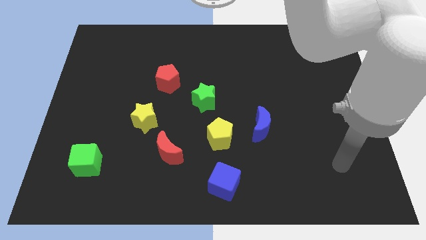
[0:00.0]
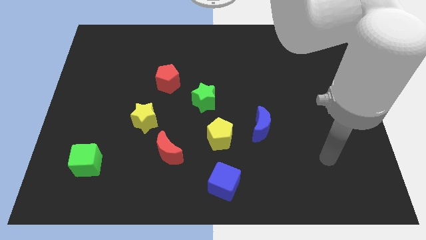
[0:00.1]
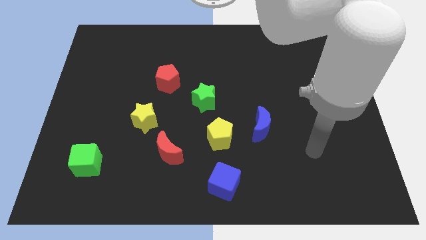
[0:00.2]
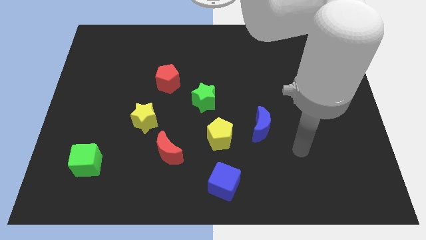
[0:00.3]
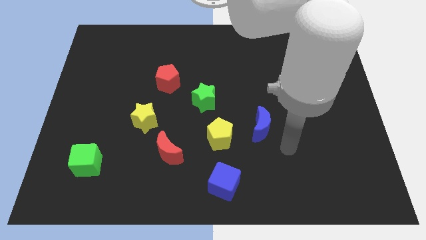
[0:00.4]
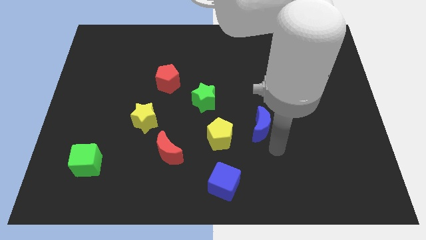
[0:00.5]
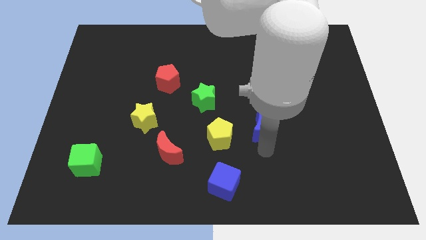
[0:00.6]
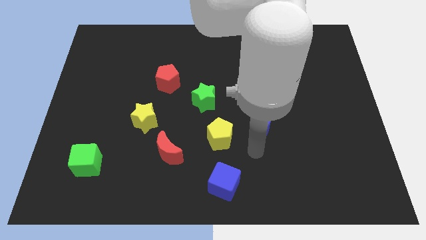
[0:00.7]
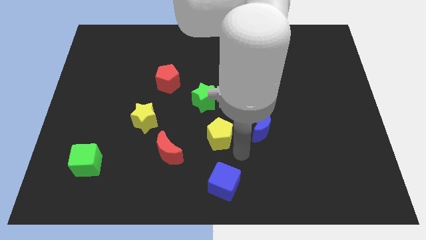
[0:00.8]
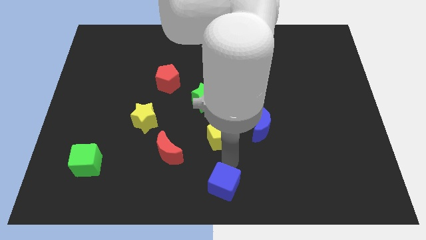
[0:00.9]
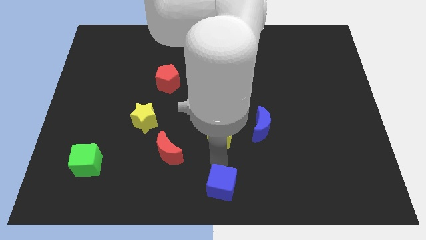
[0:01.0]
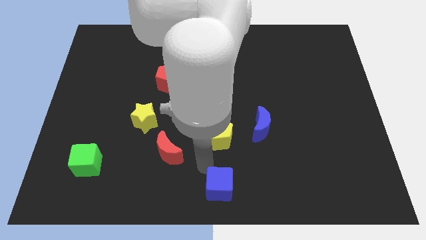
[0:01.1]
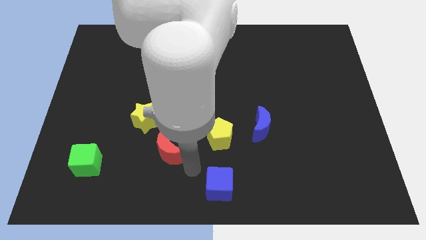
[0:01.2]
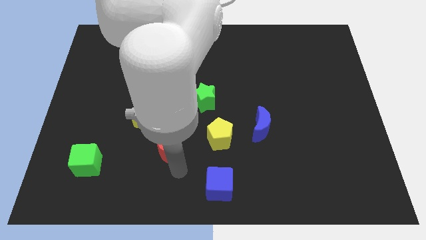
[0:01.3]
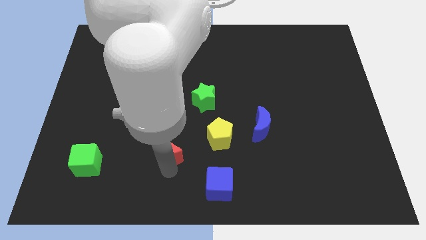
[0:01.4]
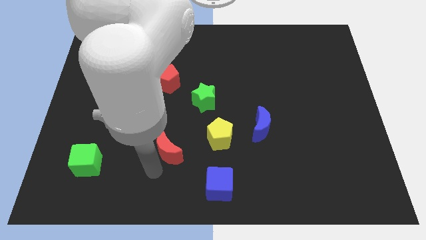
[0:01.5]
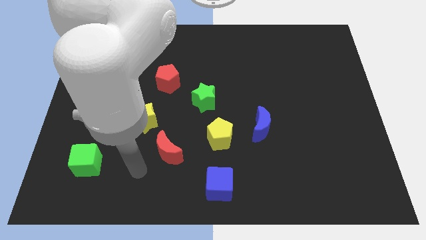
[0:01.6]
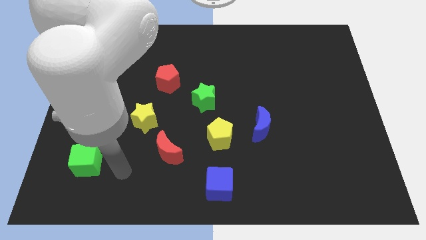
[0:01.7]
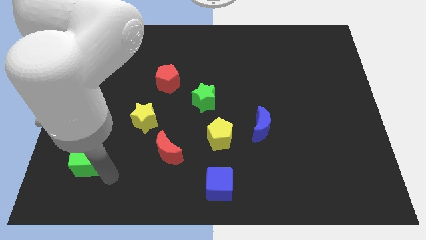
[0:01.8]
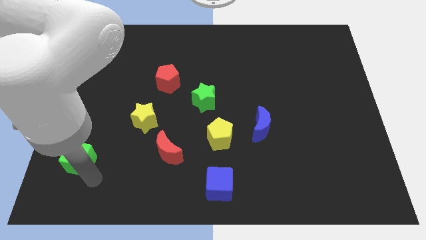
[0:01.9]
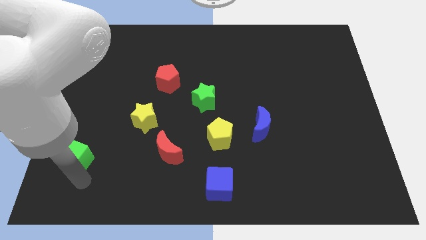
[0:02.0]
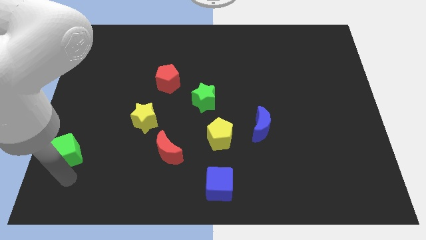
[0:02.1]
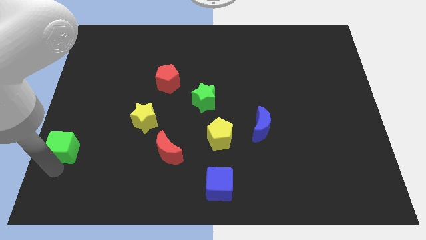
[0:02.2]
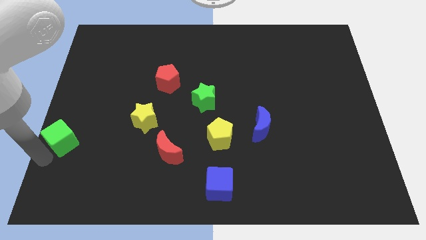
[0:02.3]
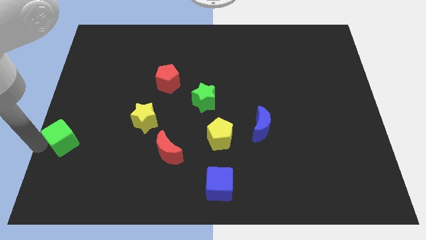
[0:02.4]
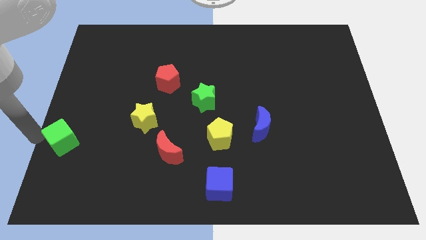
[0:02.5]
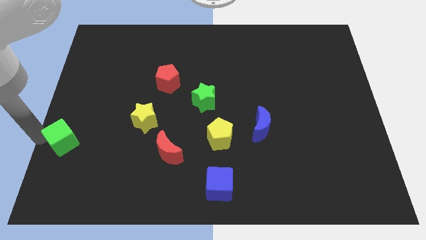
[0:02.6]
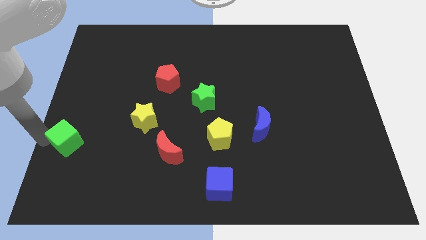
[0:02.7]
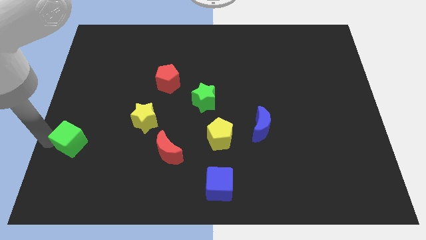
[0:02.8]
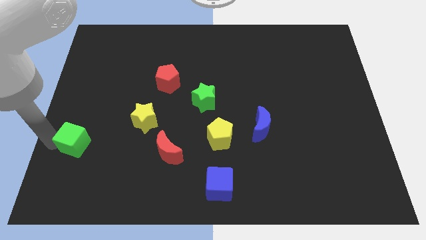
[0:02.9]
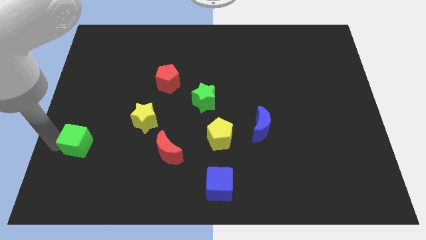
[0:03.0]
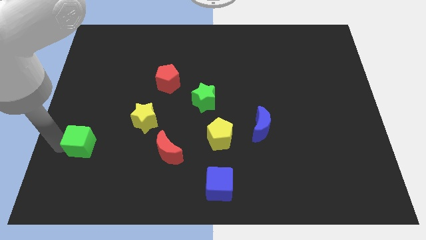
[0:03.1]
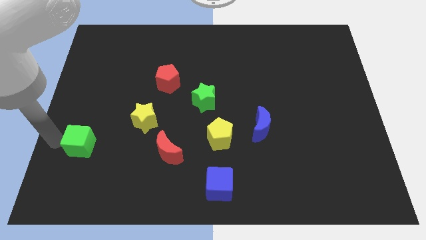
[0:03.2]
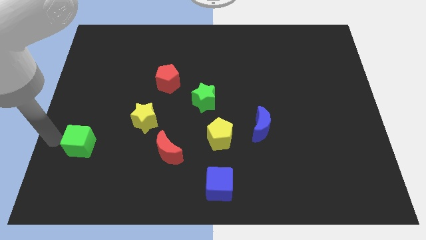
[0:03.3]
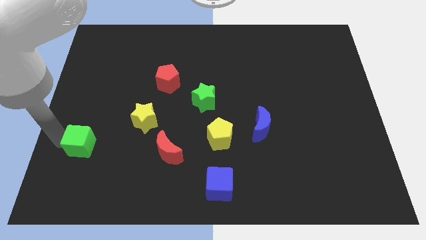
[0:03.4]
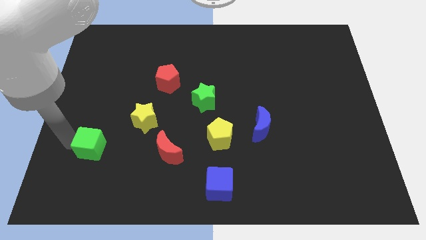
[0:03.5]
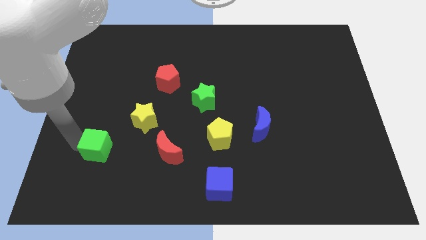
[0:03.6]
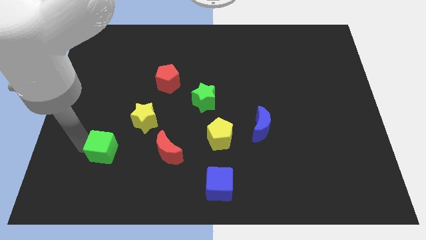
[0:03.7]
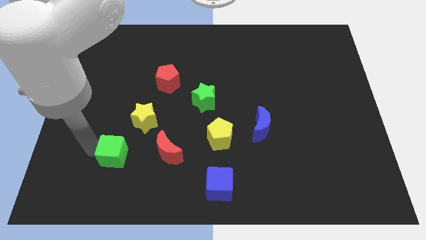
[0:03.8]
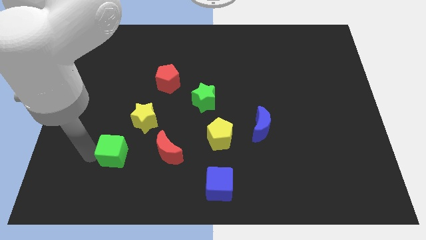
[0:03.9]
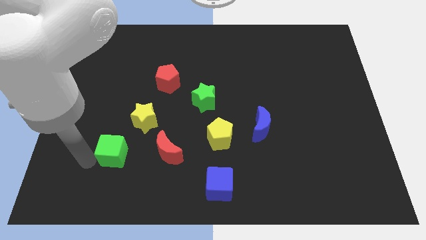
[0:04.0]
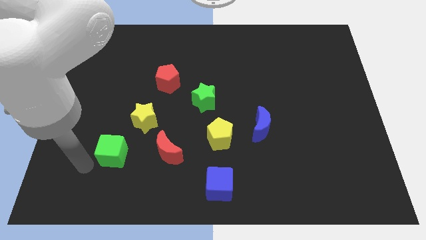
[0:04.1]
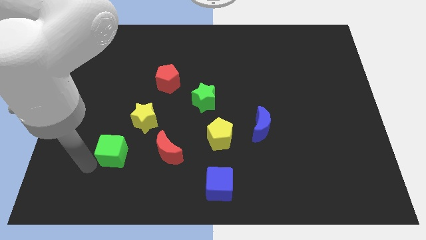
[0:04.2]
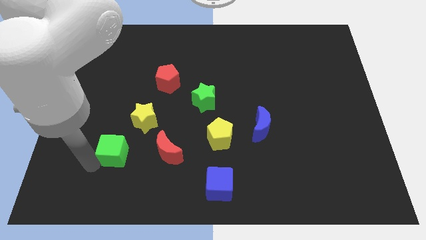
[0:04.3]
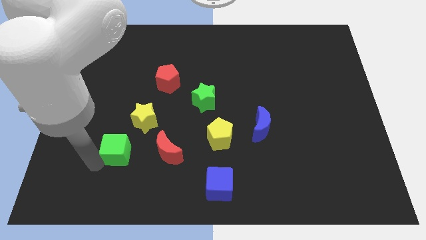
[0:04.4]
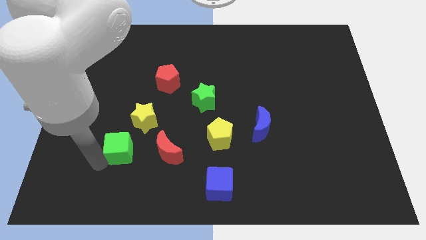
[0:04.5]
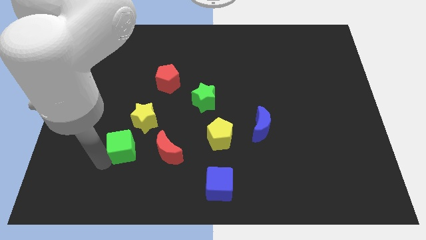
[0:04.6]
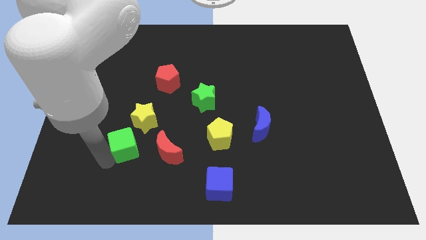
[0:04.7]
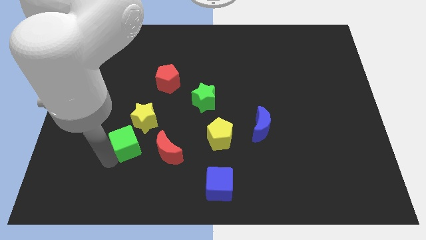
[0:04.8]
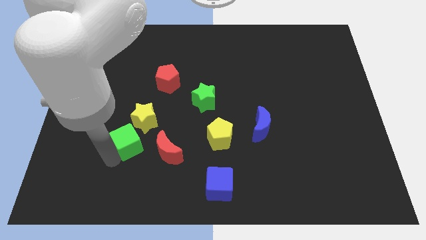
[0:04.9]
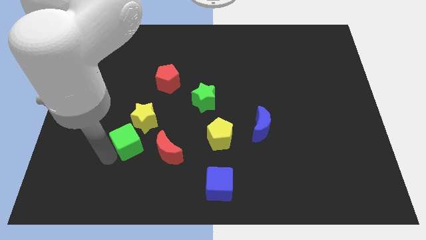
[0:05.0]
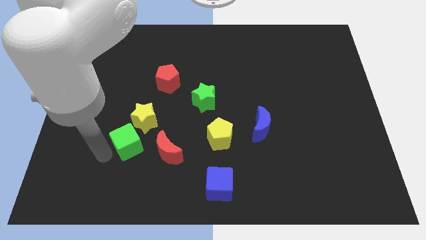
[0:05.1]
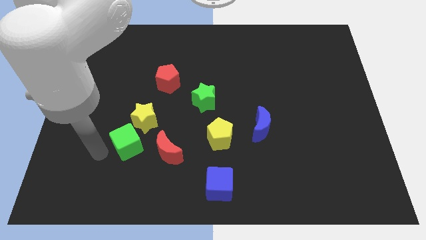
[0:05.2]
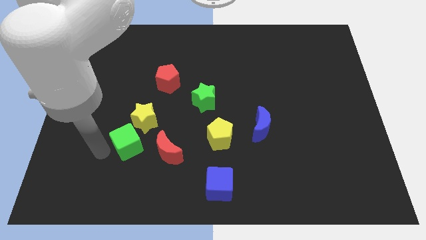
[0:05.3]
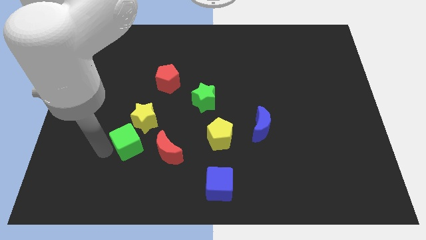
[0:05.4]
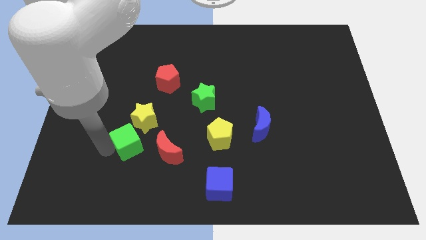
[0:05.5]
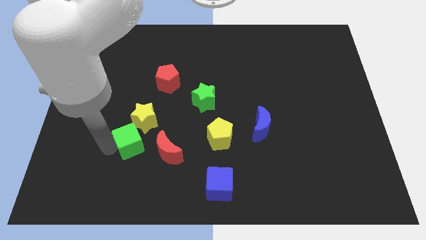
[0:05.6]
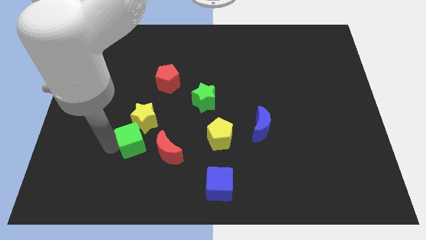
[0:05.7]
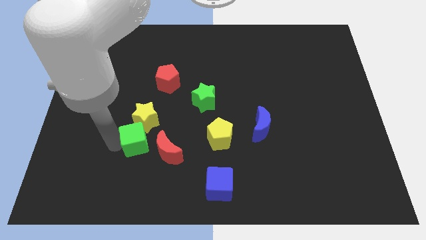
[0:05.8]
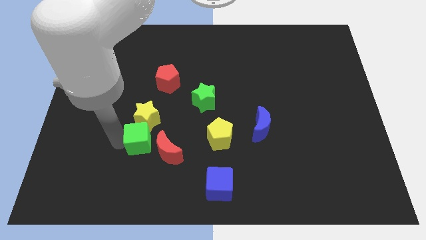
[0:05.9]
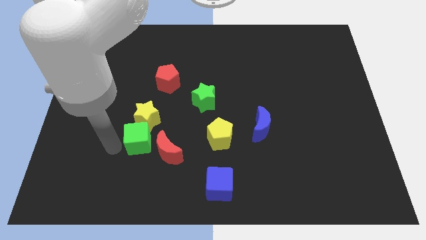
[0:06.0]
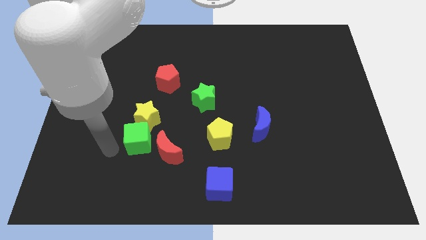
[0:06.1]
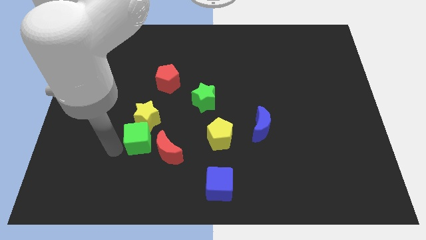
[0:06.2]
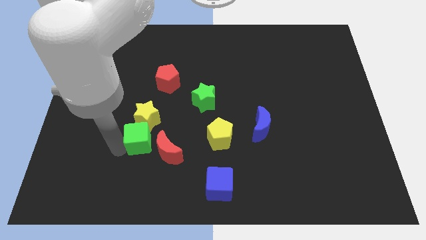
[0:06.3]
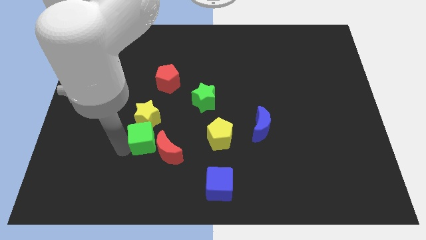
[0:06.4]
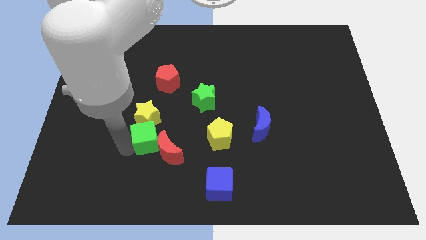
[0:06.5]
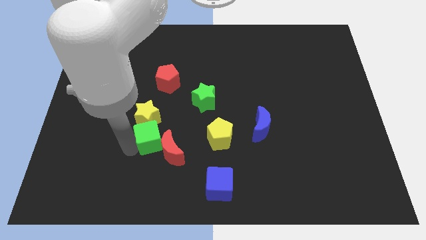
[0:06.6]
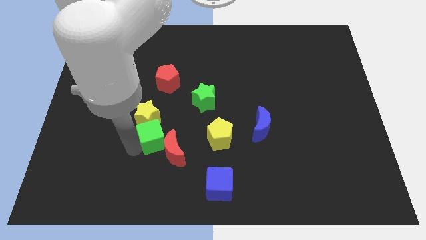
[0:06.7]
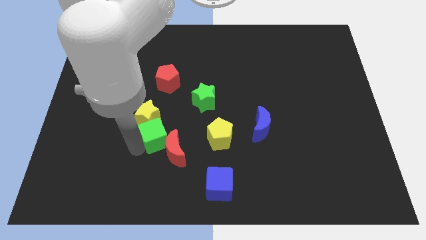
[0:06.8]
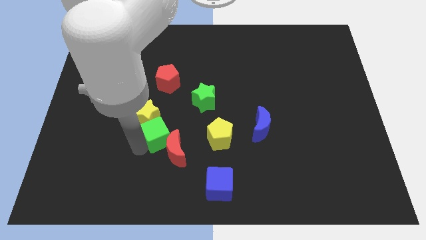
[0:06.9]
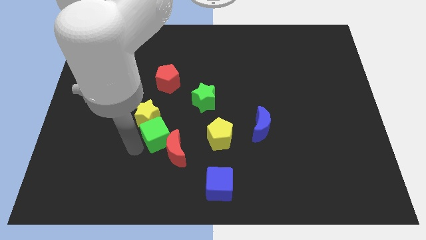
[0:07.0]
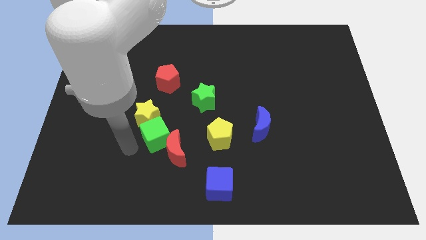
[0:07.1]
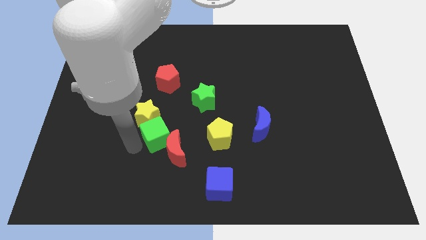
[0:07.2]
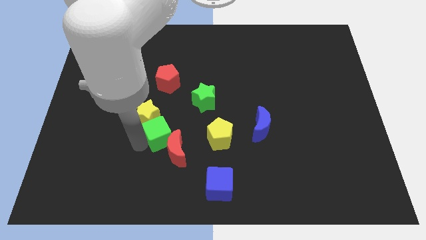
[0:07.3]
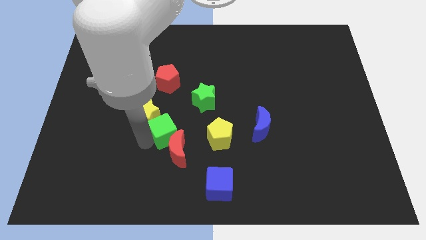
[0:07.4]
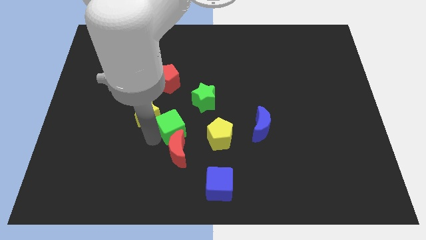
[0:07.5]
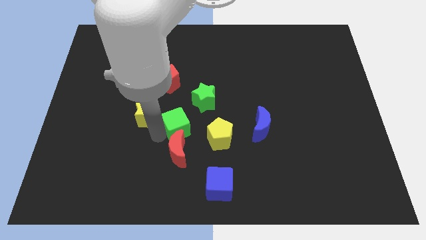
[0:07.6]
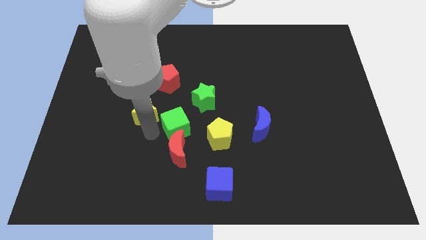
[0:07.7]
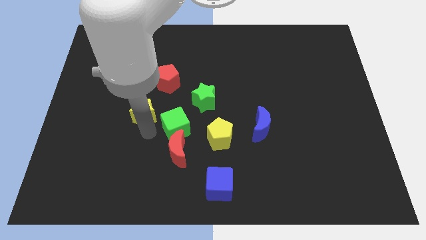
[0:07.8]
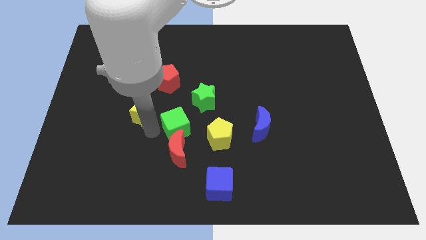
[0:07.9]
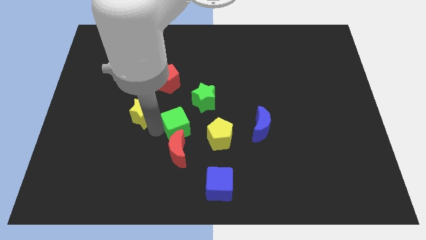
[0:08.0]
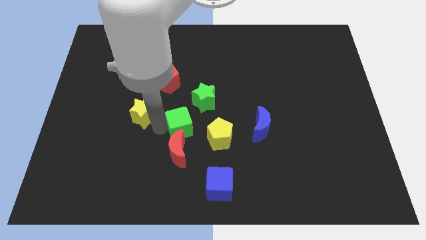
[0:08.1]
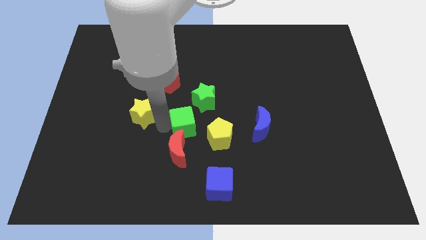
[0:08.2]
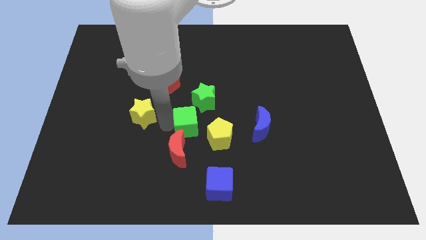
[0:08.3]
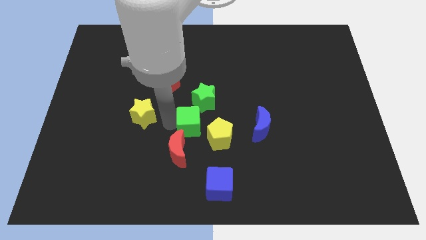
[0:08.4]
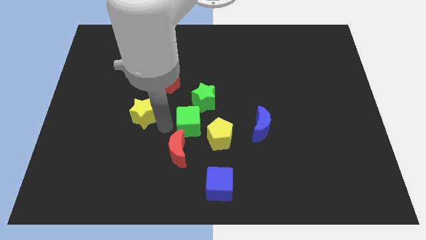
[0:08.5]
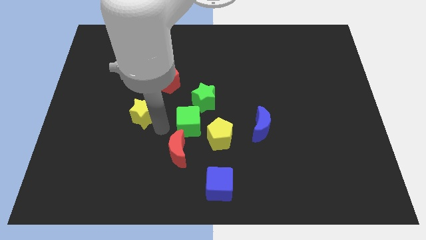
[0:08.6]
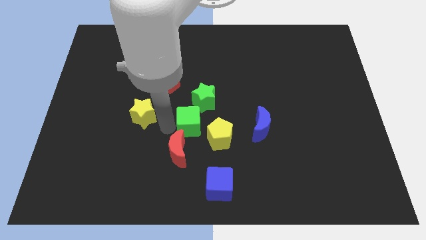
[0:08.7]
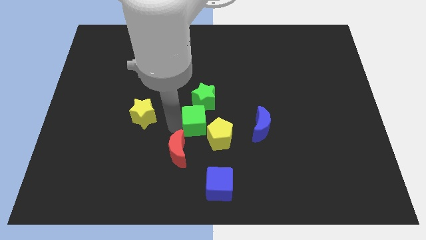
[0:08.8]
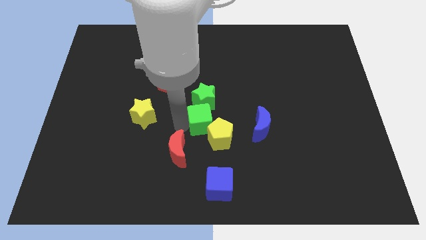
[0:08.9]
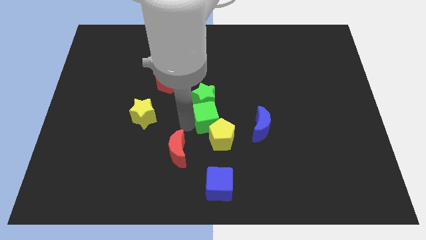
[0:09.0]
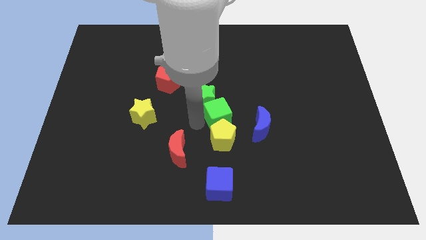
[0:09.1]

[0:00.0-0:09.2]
move the green cube to the top left of the blue moon
